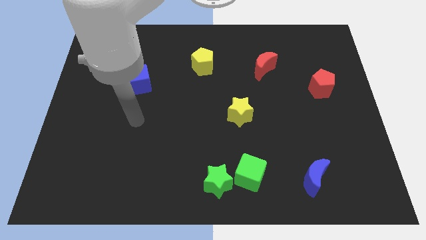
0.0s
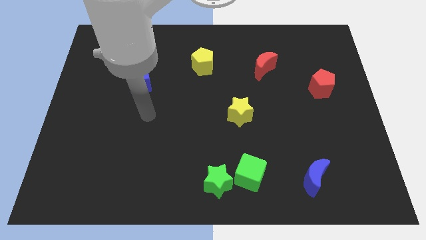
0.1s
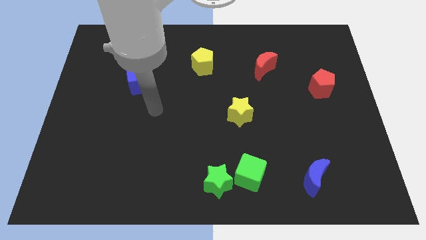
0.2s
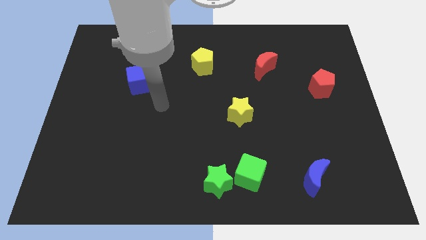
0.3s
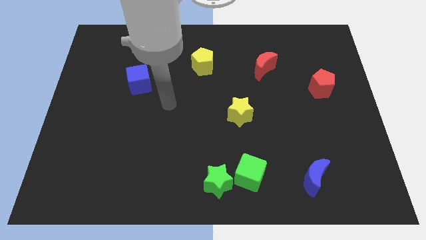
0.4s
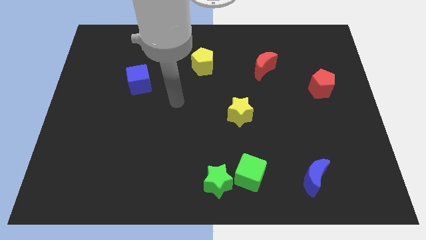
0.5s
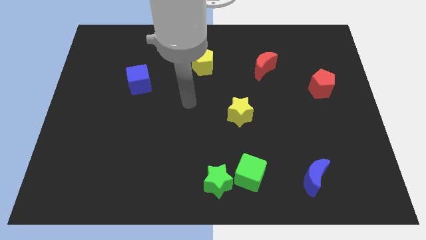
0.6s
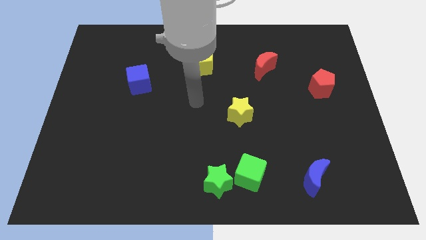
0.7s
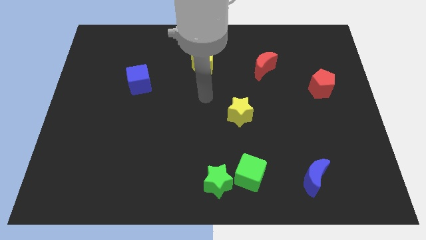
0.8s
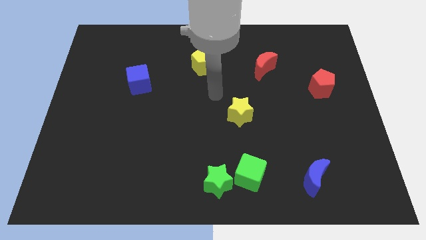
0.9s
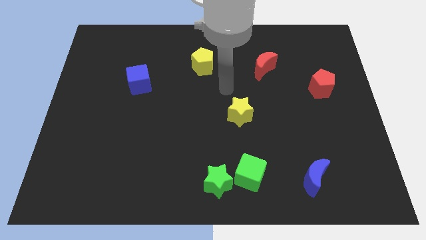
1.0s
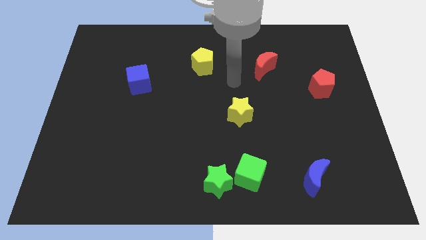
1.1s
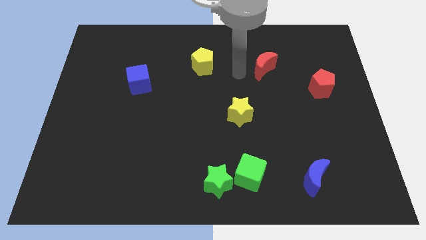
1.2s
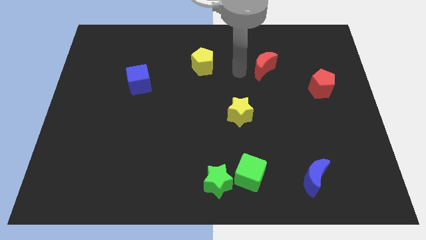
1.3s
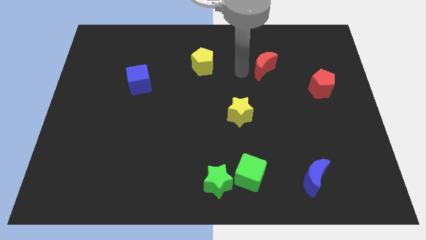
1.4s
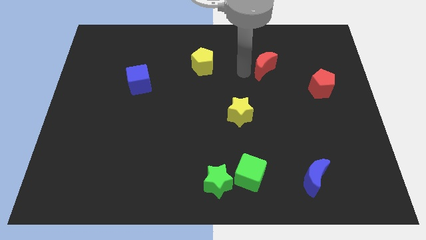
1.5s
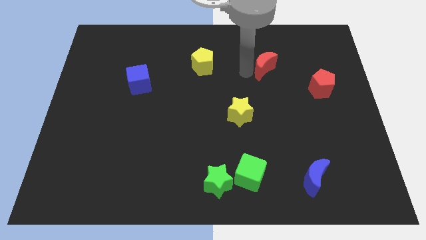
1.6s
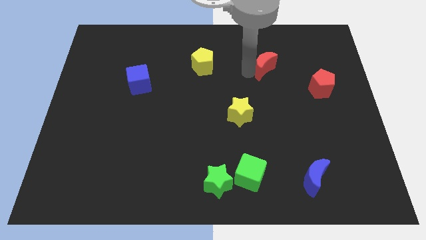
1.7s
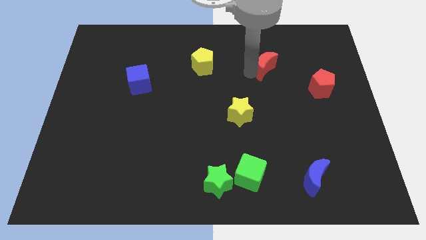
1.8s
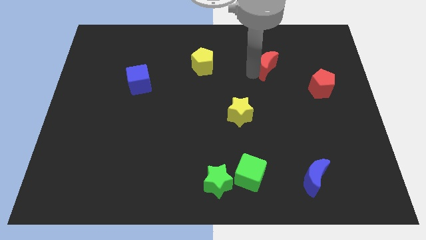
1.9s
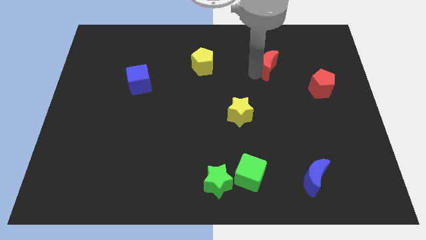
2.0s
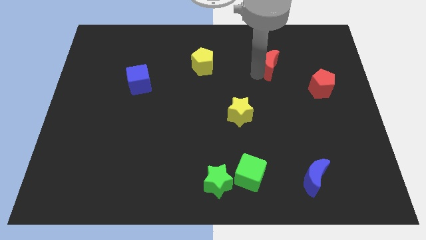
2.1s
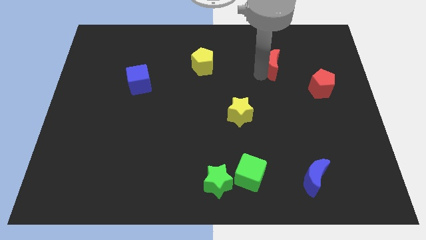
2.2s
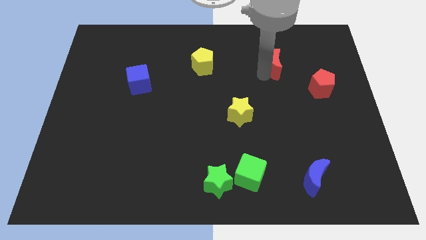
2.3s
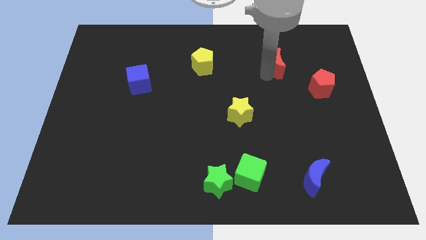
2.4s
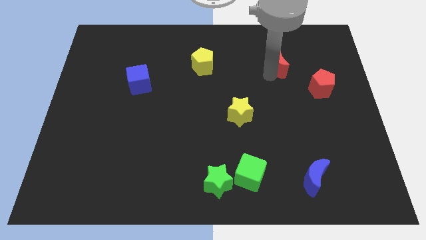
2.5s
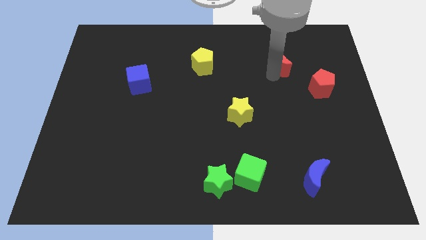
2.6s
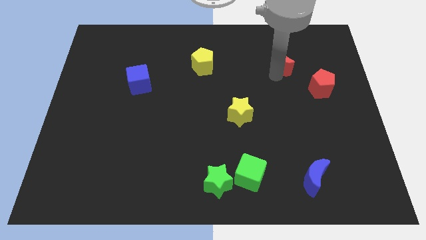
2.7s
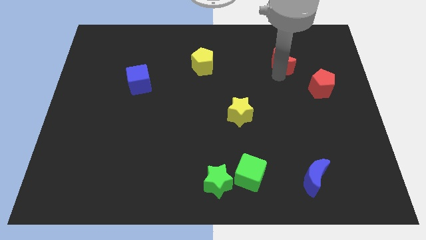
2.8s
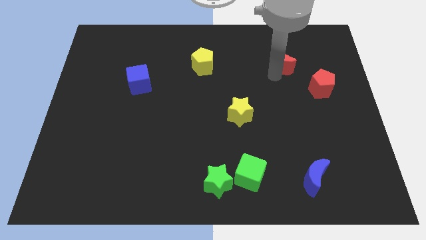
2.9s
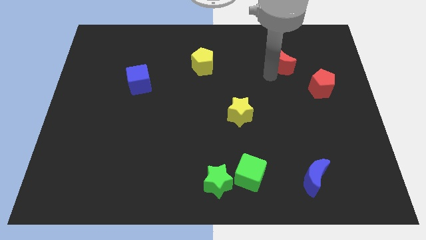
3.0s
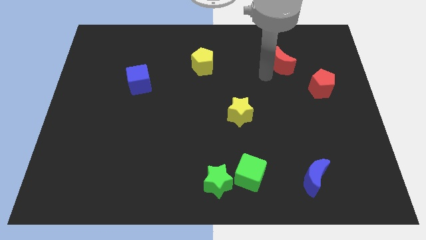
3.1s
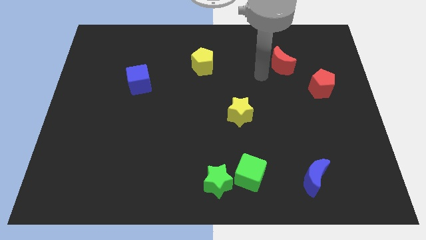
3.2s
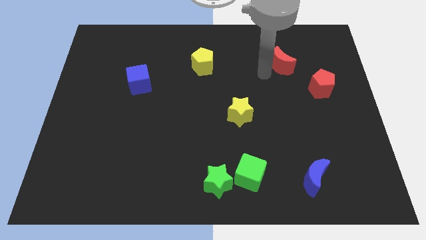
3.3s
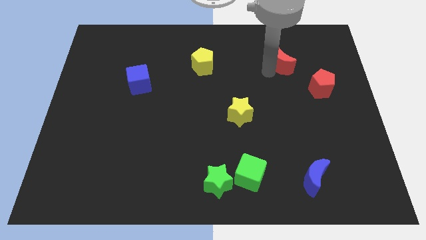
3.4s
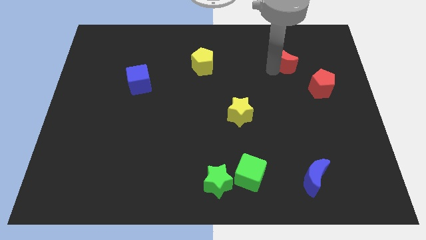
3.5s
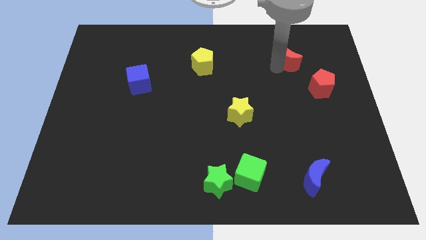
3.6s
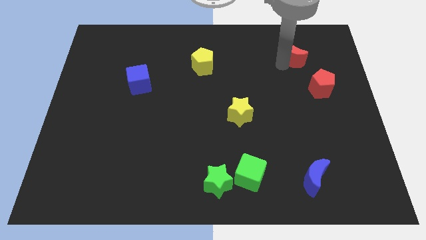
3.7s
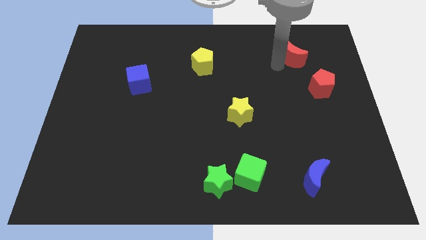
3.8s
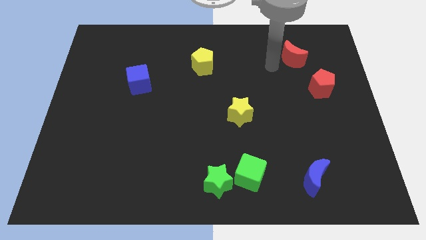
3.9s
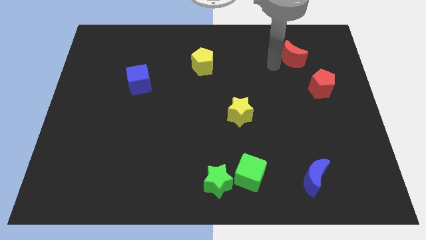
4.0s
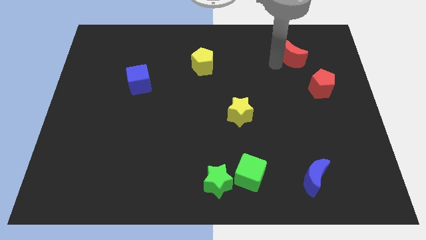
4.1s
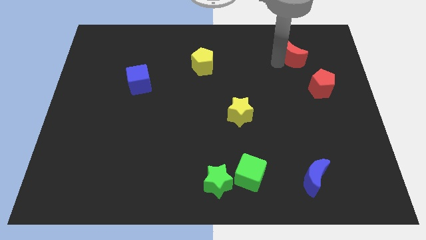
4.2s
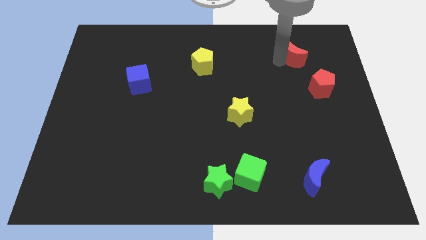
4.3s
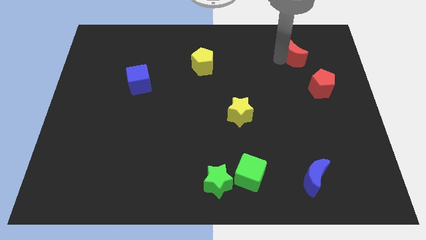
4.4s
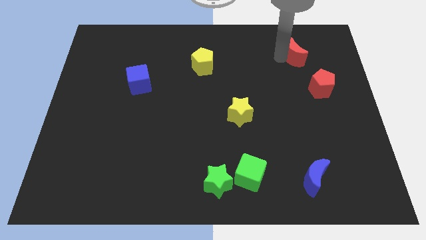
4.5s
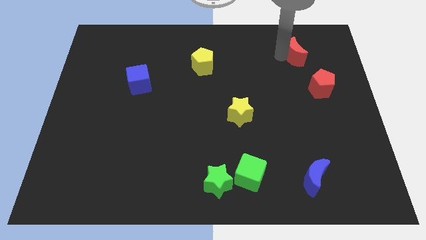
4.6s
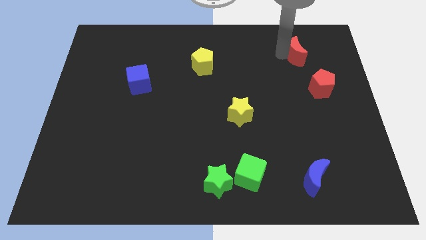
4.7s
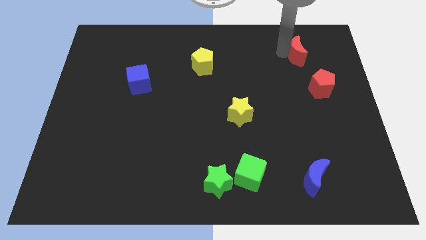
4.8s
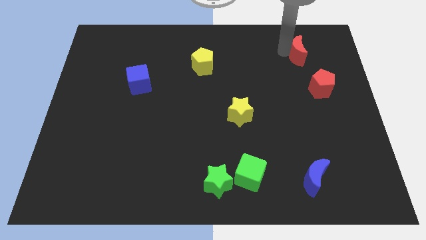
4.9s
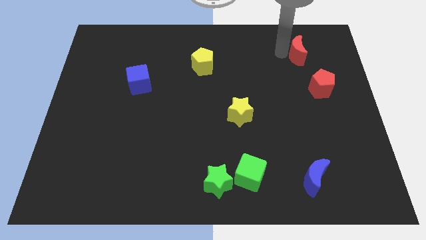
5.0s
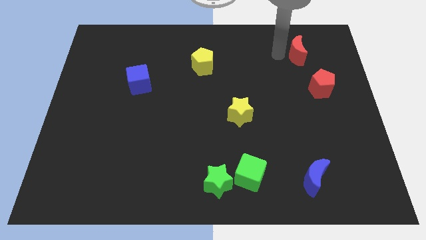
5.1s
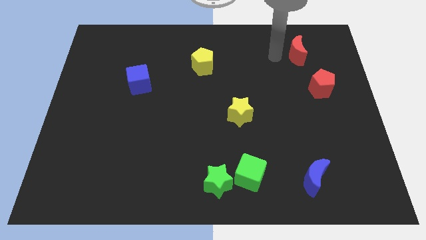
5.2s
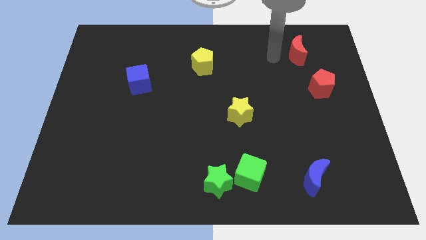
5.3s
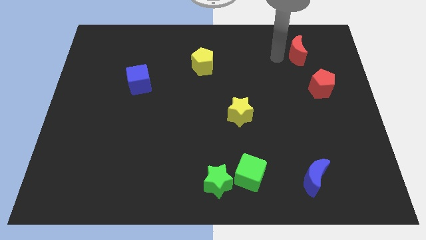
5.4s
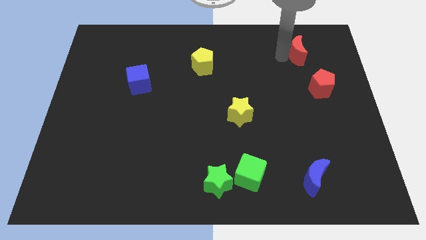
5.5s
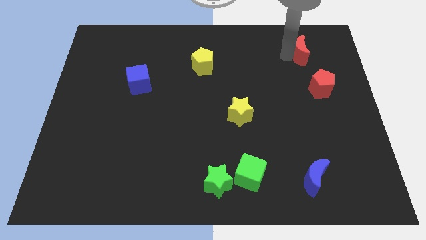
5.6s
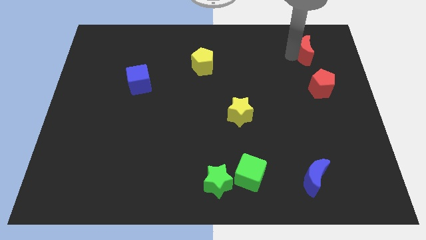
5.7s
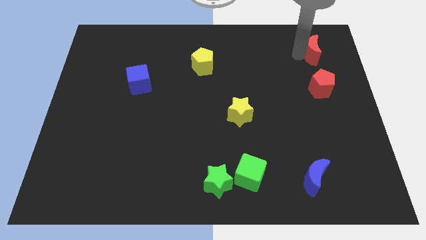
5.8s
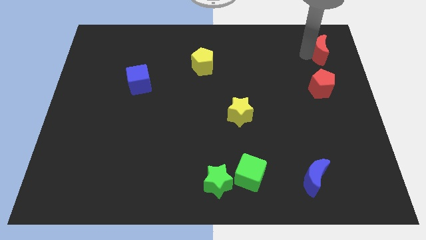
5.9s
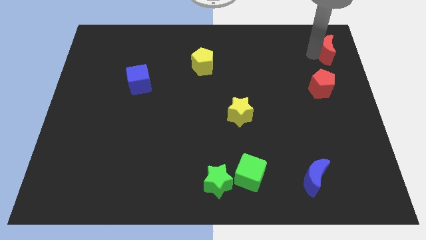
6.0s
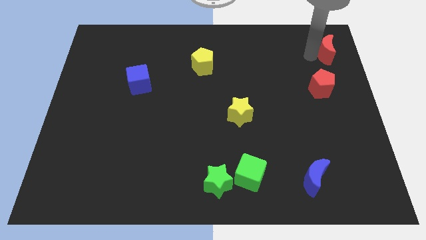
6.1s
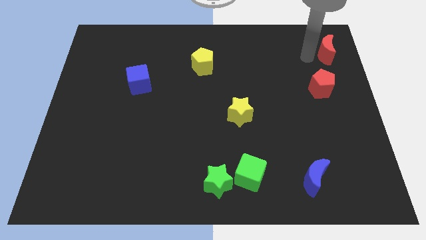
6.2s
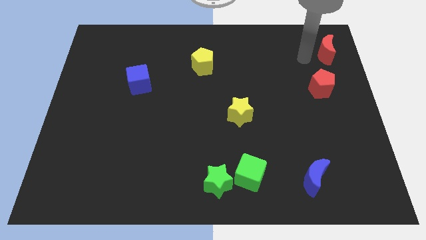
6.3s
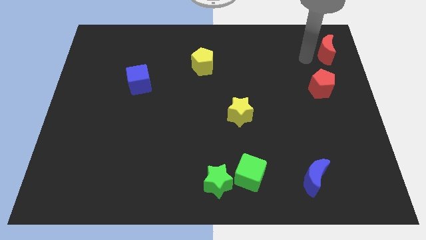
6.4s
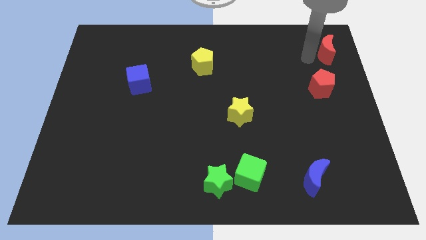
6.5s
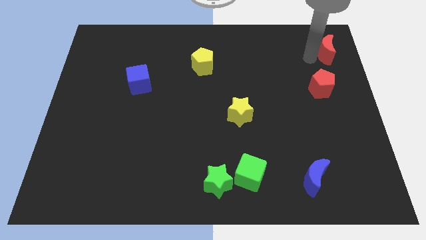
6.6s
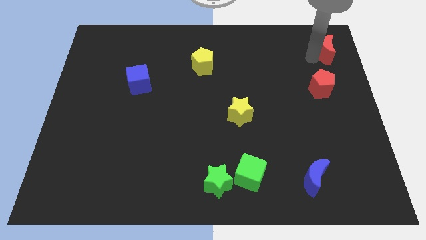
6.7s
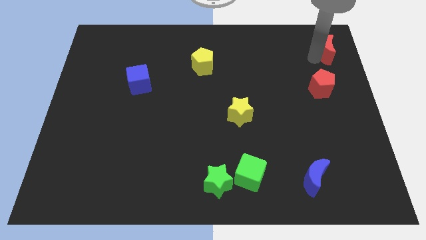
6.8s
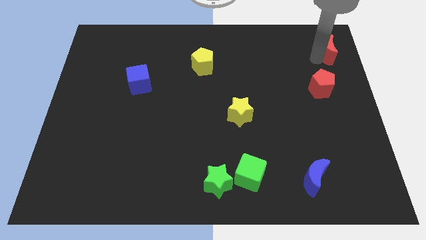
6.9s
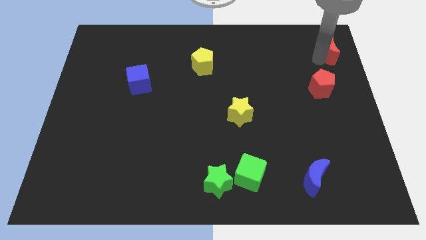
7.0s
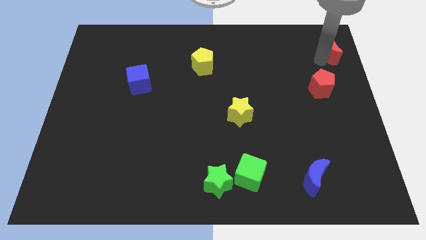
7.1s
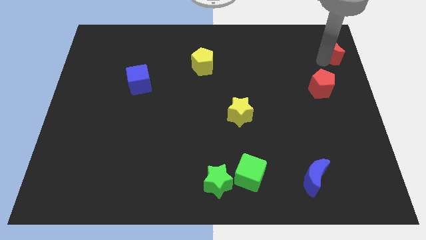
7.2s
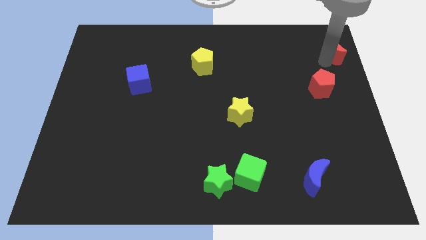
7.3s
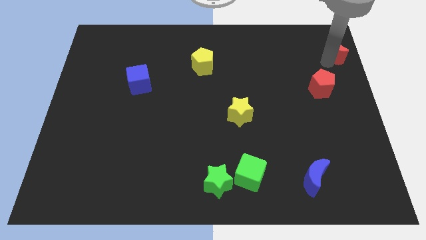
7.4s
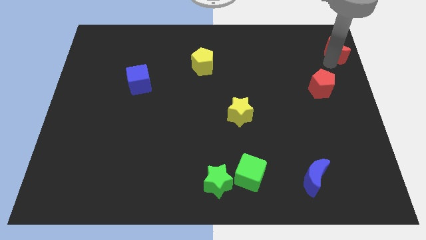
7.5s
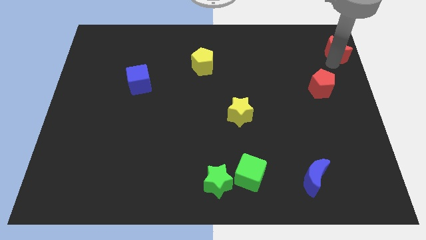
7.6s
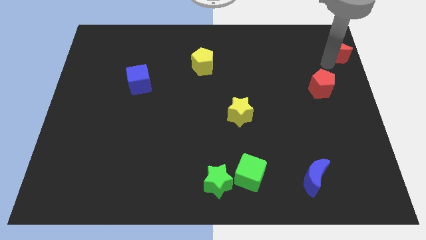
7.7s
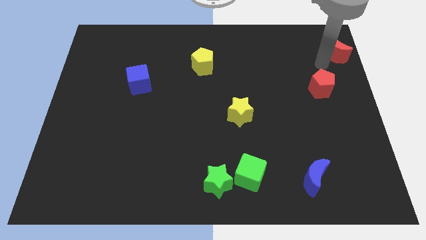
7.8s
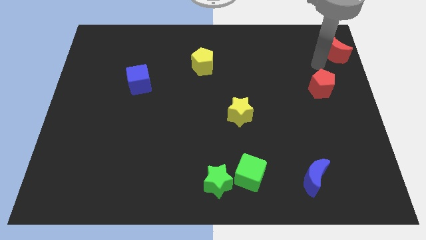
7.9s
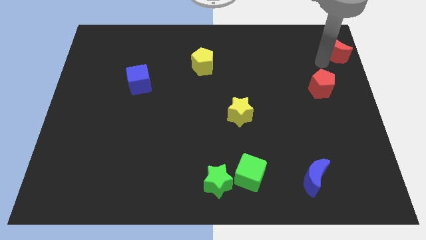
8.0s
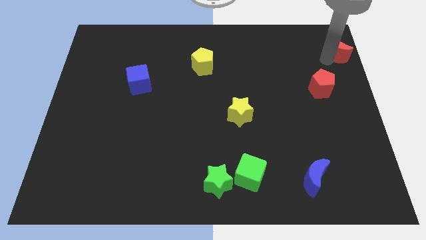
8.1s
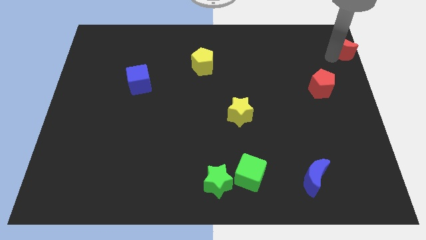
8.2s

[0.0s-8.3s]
put the red moon to the top right corner
